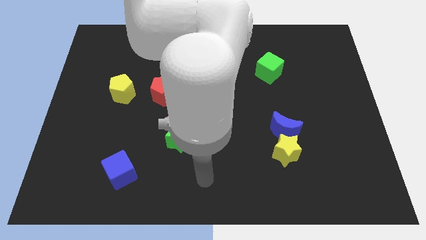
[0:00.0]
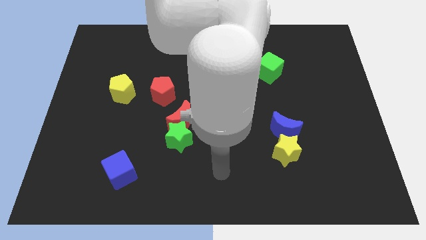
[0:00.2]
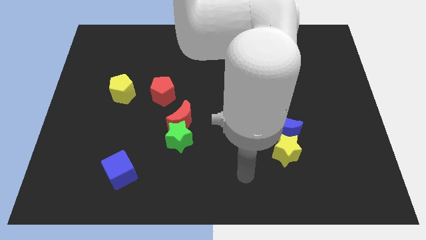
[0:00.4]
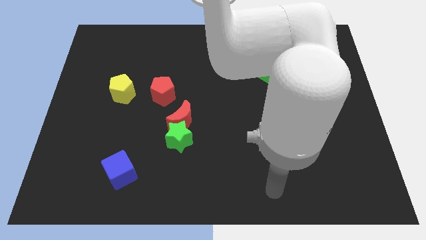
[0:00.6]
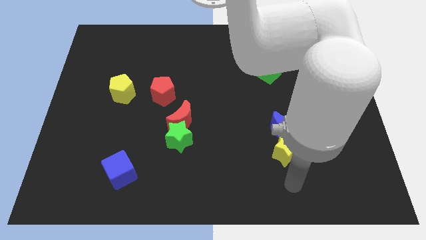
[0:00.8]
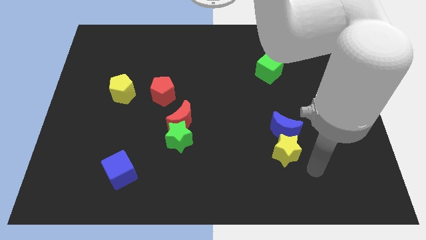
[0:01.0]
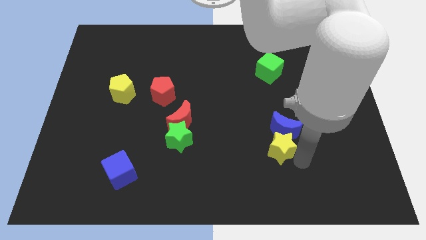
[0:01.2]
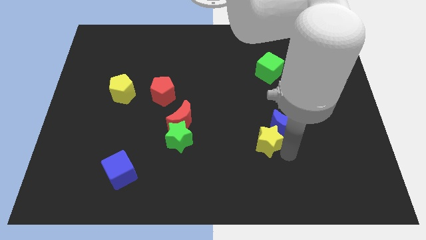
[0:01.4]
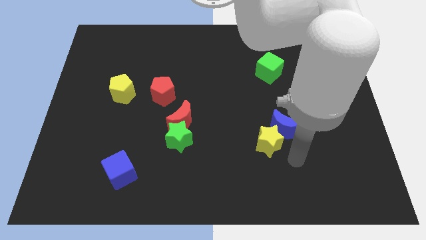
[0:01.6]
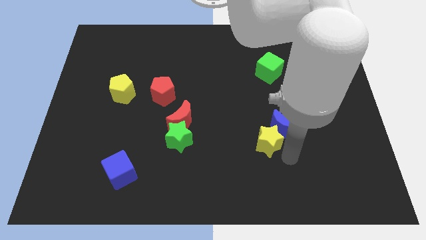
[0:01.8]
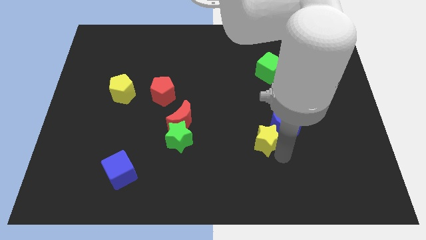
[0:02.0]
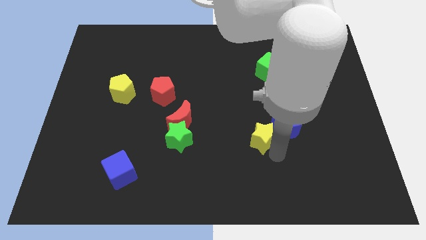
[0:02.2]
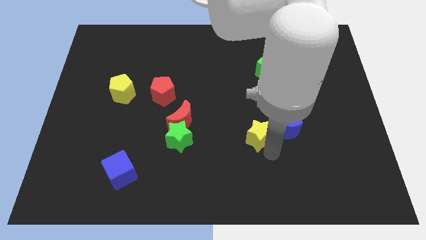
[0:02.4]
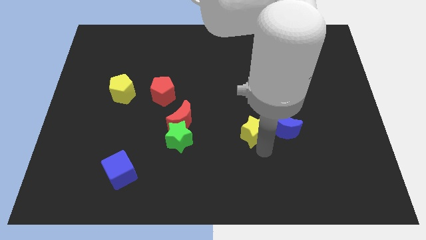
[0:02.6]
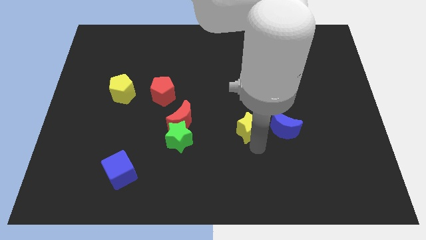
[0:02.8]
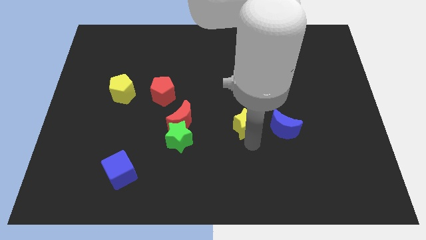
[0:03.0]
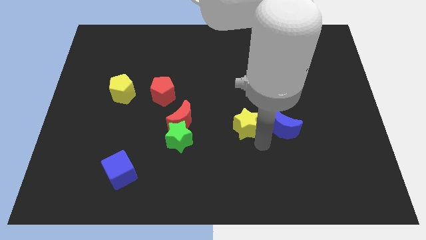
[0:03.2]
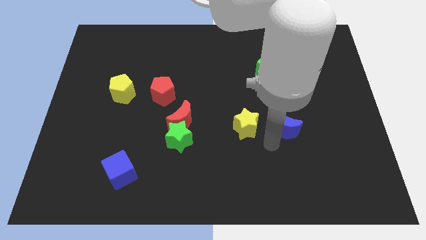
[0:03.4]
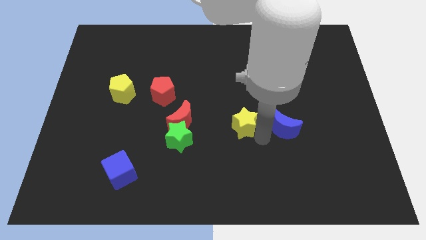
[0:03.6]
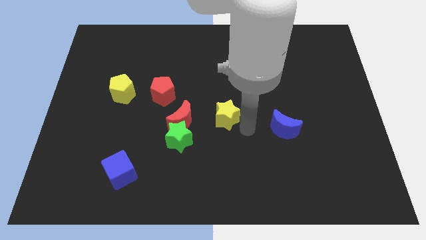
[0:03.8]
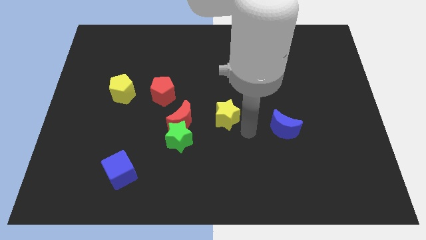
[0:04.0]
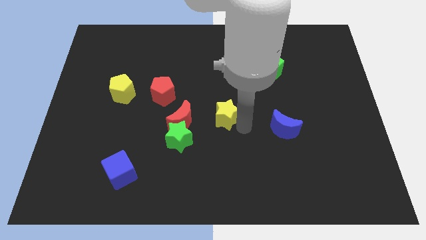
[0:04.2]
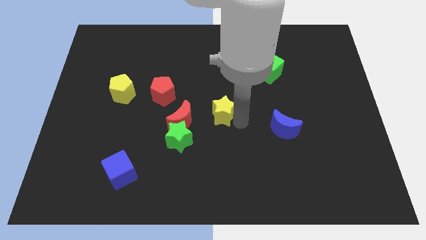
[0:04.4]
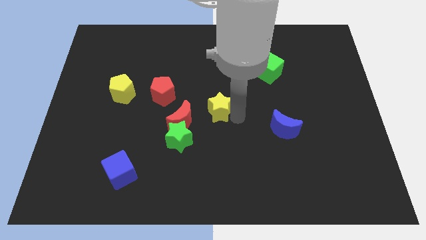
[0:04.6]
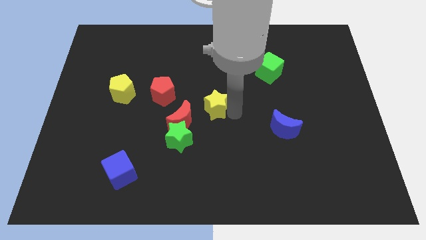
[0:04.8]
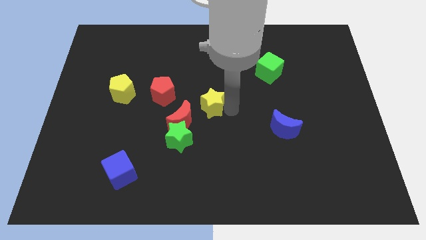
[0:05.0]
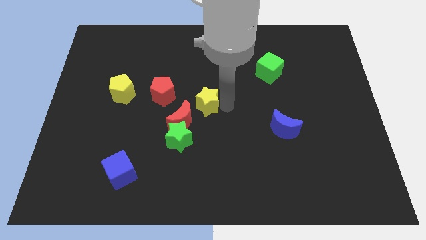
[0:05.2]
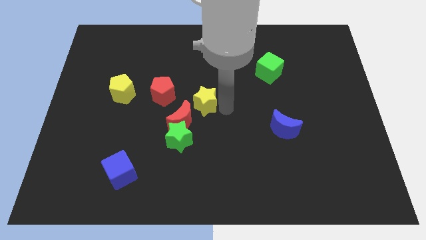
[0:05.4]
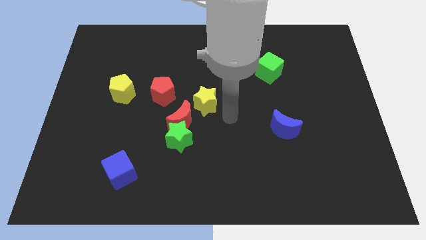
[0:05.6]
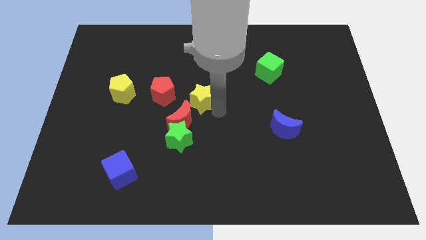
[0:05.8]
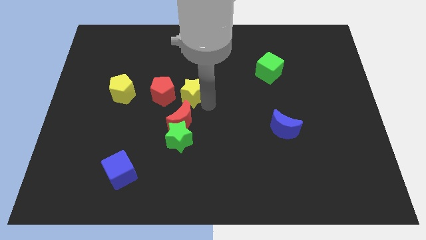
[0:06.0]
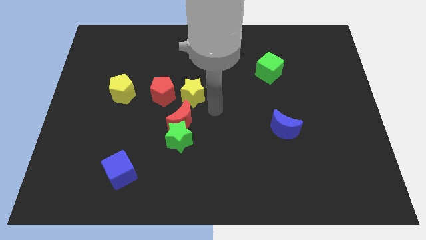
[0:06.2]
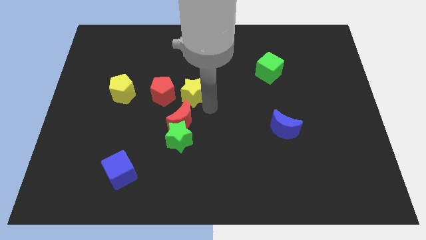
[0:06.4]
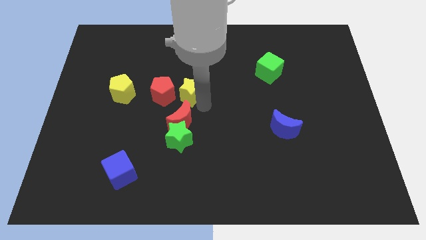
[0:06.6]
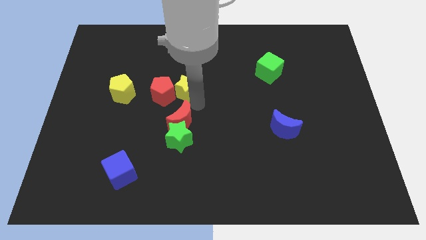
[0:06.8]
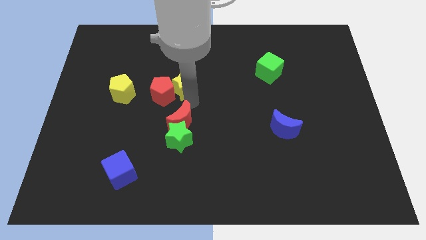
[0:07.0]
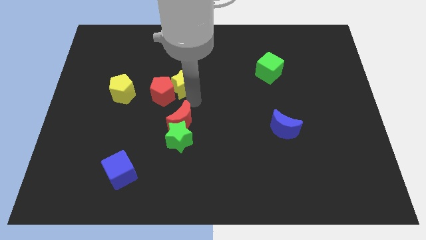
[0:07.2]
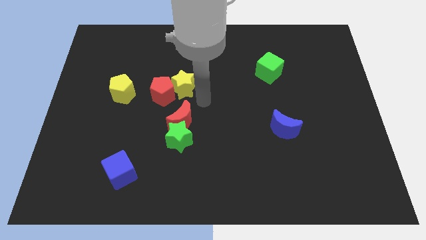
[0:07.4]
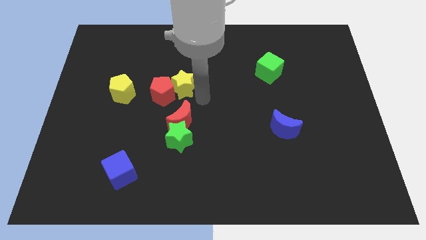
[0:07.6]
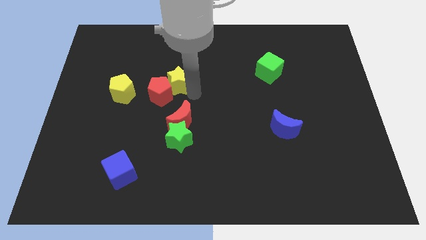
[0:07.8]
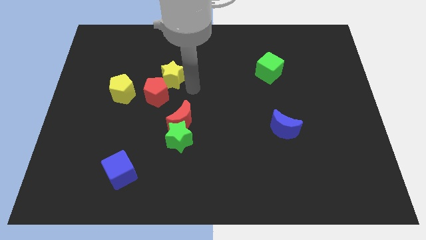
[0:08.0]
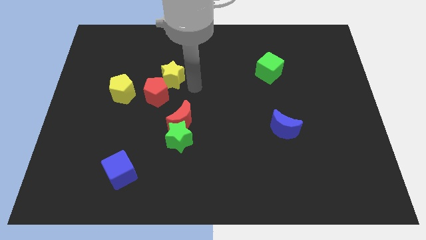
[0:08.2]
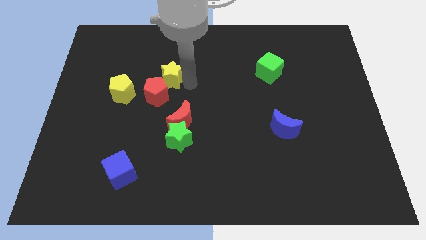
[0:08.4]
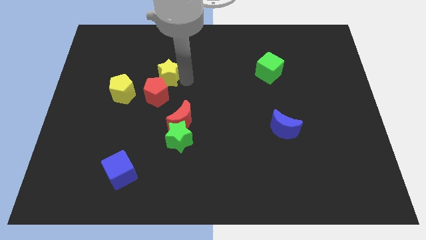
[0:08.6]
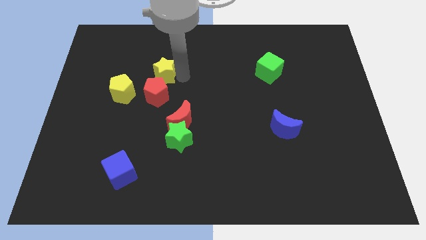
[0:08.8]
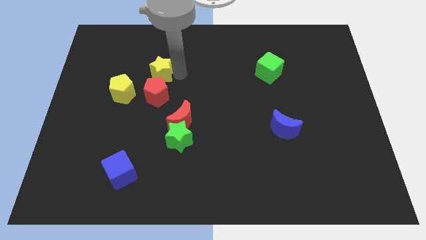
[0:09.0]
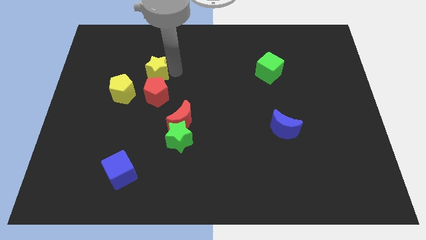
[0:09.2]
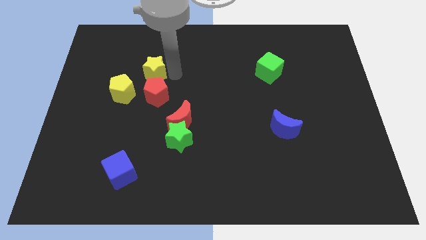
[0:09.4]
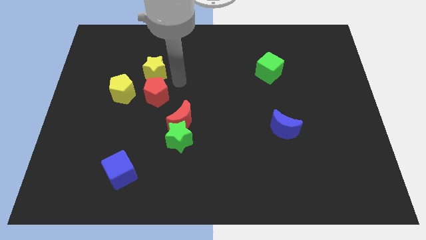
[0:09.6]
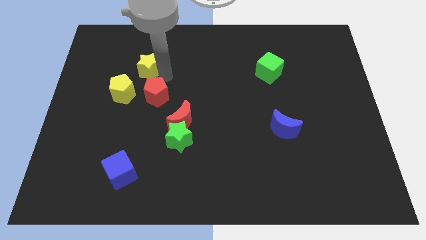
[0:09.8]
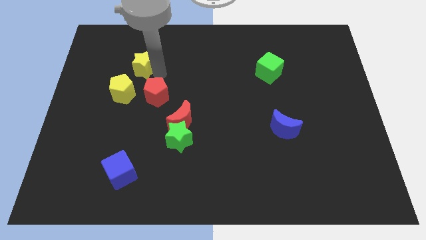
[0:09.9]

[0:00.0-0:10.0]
put the yellow star to the top of the yellow pentagon

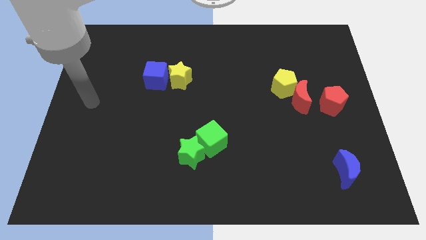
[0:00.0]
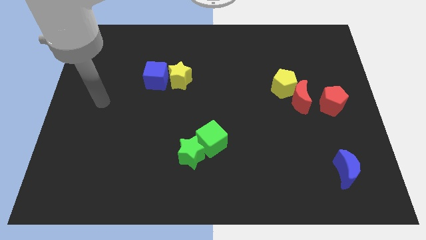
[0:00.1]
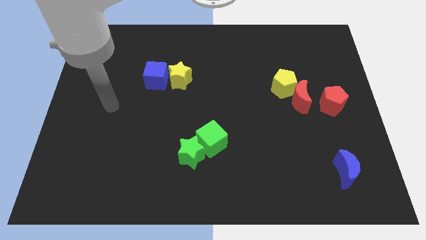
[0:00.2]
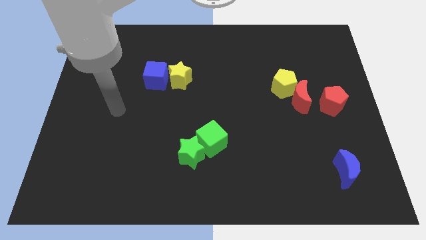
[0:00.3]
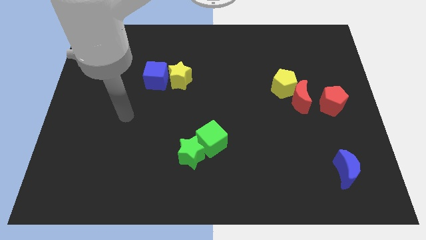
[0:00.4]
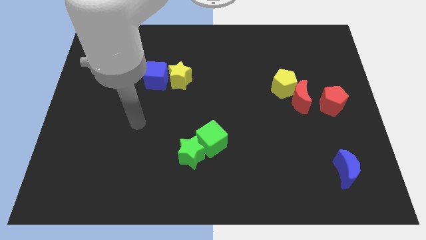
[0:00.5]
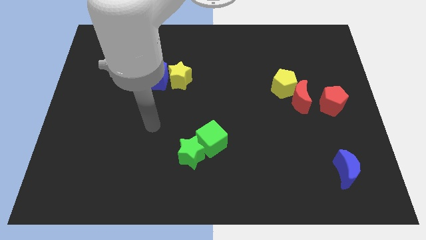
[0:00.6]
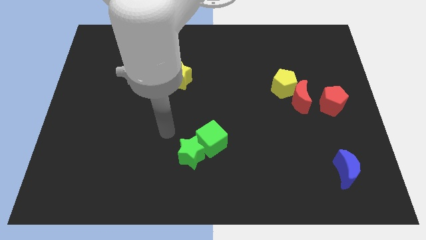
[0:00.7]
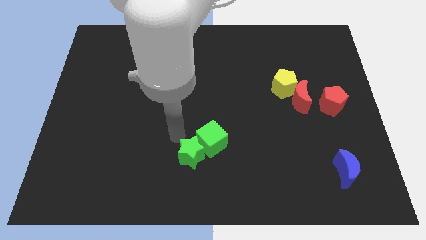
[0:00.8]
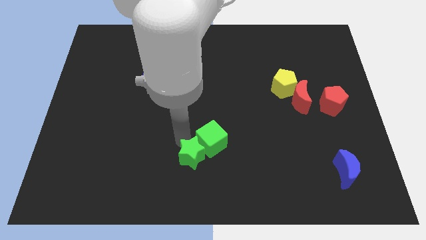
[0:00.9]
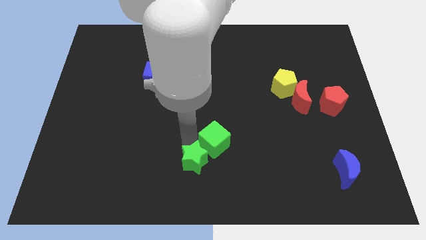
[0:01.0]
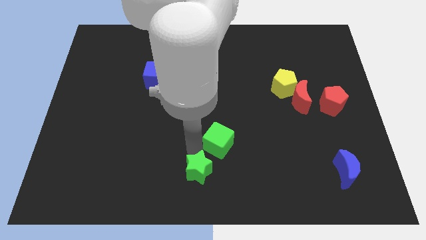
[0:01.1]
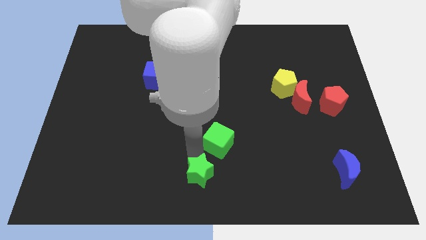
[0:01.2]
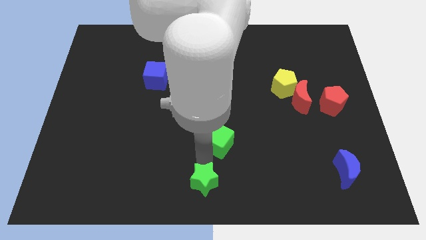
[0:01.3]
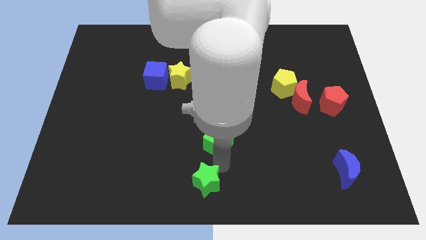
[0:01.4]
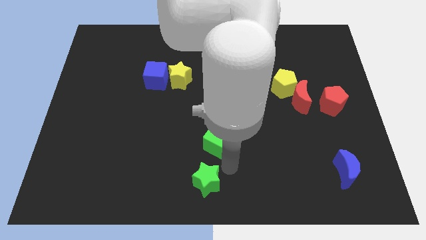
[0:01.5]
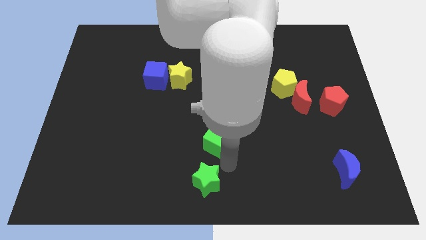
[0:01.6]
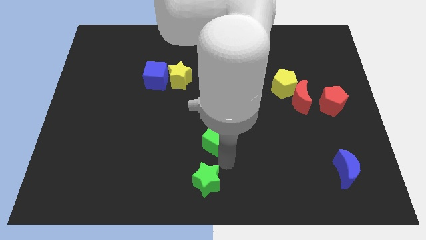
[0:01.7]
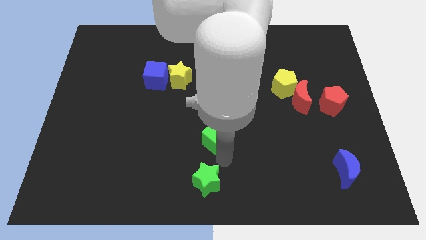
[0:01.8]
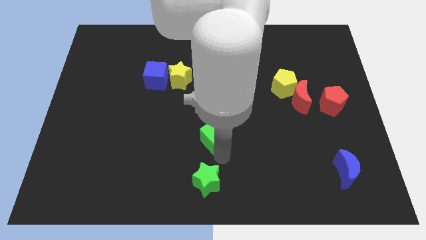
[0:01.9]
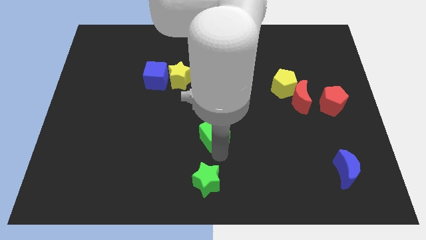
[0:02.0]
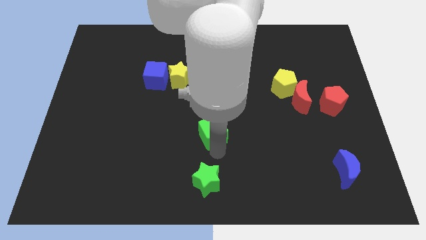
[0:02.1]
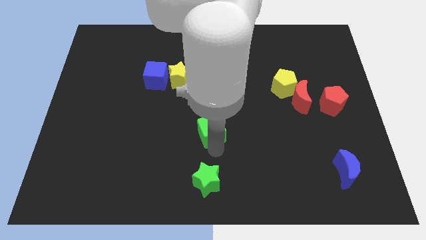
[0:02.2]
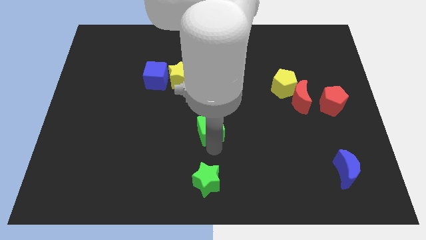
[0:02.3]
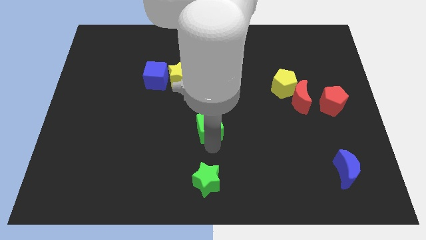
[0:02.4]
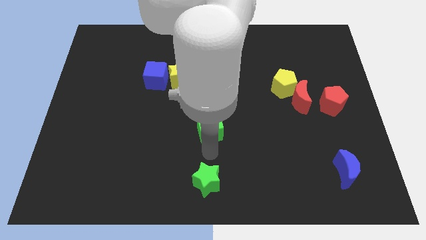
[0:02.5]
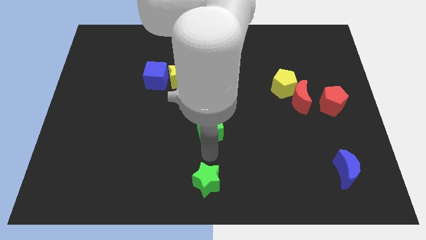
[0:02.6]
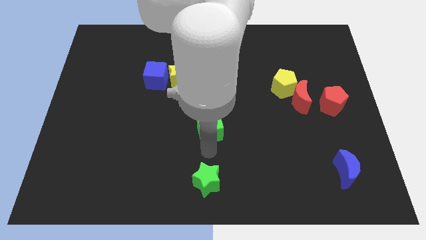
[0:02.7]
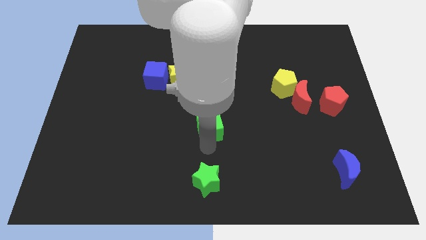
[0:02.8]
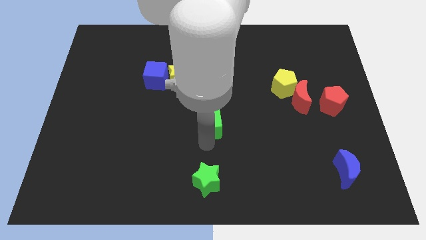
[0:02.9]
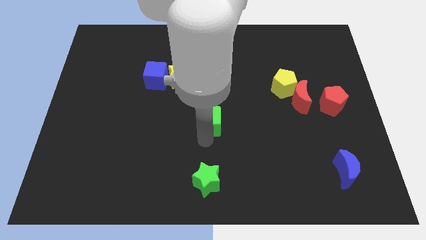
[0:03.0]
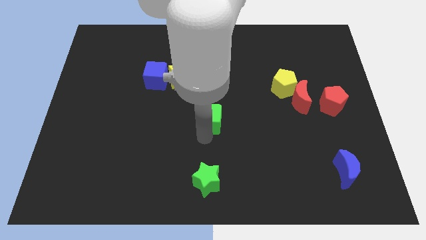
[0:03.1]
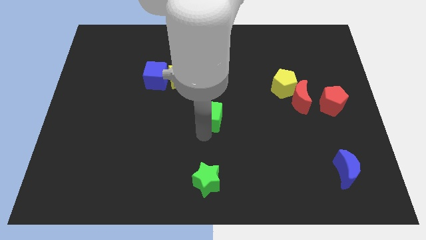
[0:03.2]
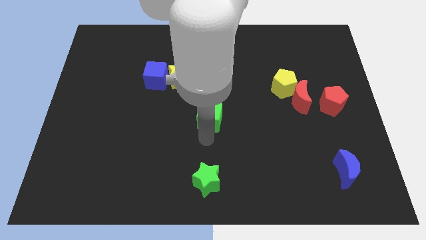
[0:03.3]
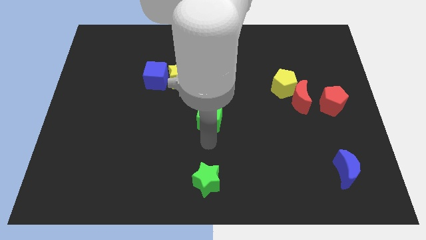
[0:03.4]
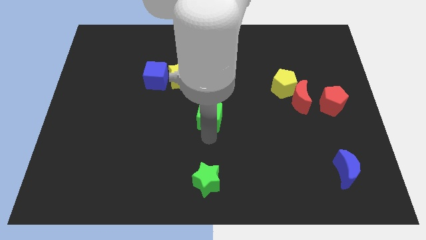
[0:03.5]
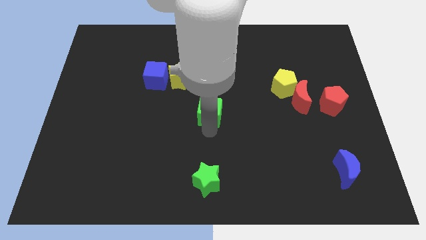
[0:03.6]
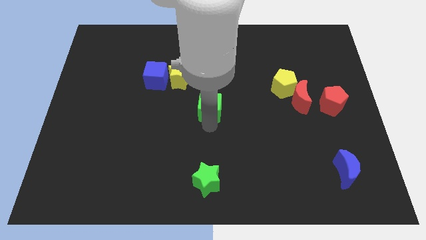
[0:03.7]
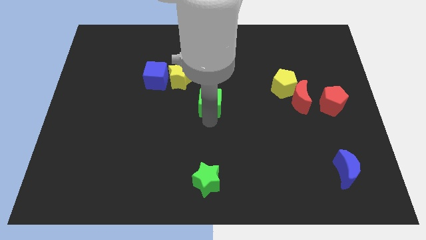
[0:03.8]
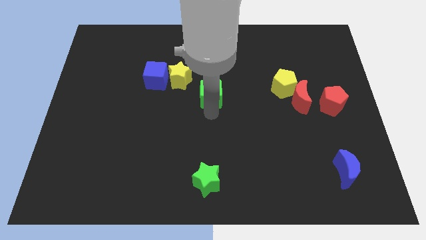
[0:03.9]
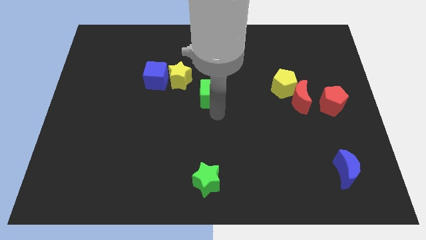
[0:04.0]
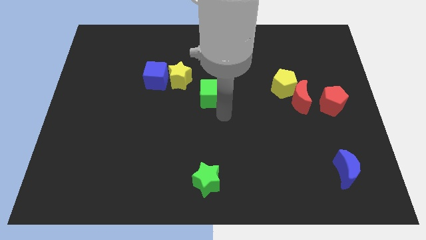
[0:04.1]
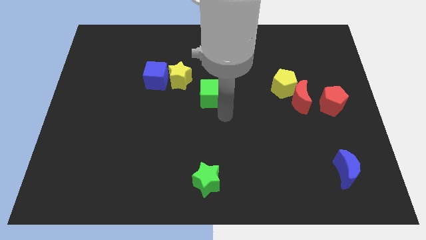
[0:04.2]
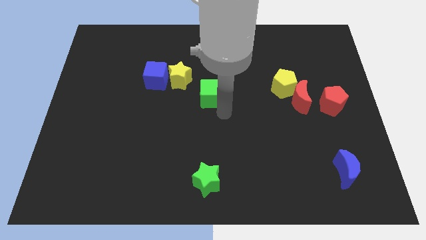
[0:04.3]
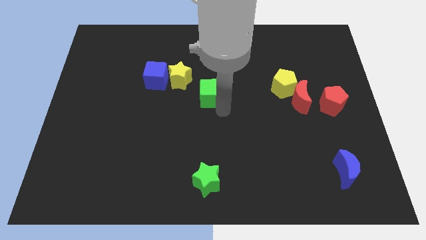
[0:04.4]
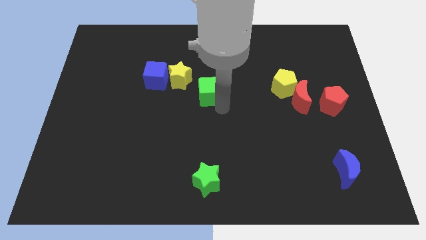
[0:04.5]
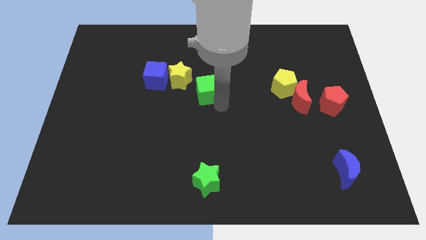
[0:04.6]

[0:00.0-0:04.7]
put the green cube just right of the blue cube
